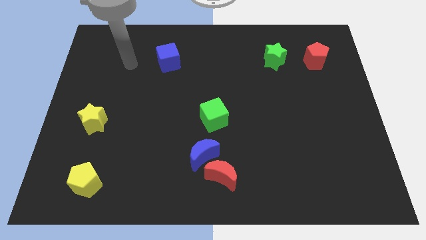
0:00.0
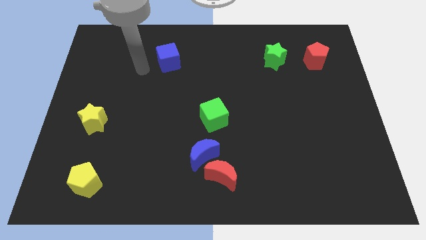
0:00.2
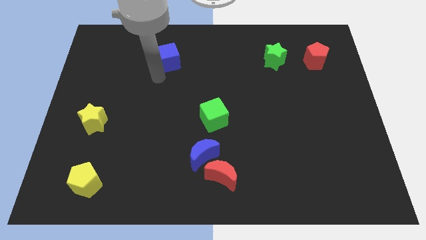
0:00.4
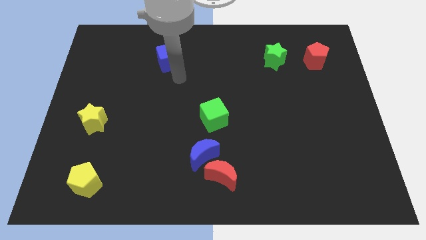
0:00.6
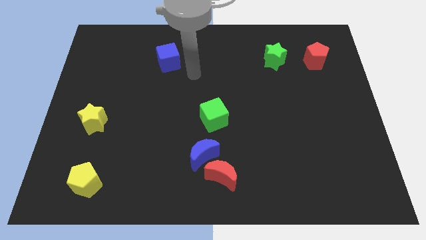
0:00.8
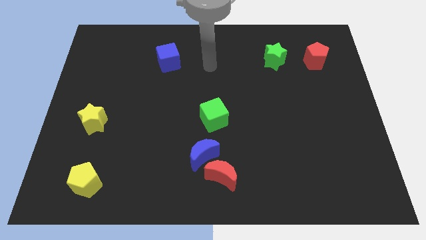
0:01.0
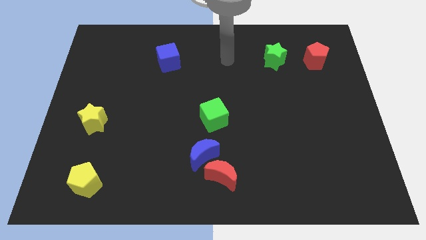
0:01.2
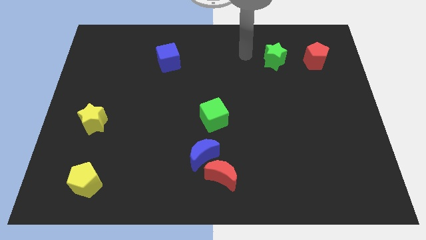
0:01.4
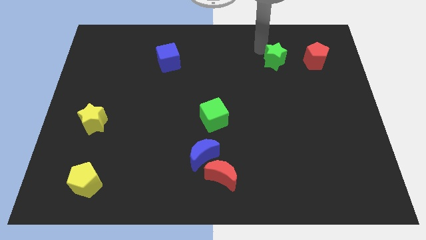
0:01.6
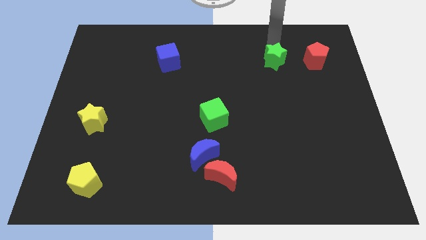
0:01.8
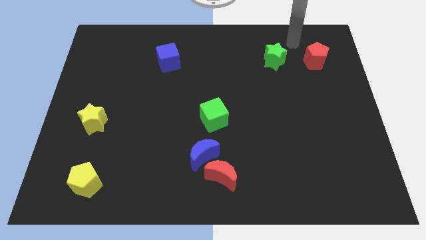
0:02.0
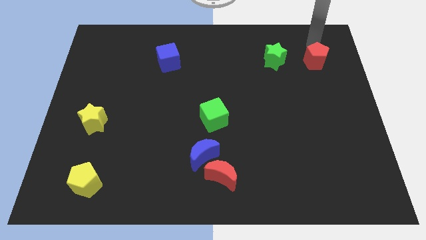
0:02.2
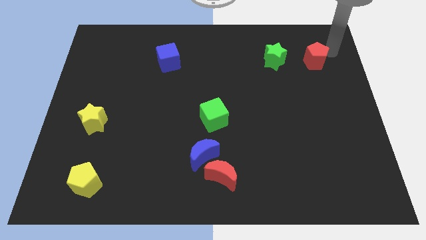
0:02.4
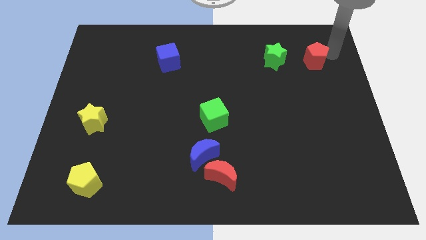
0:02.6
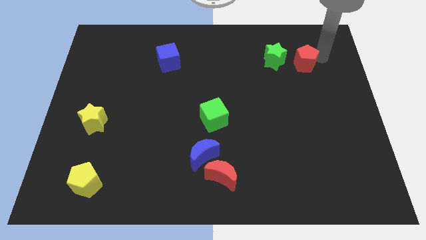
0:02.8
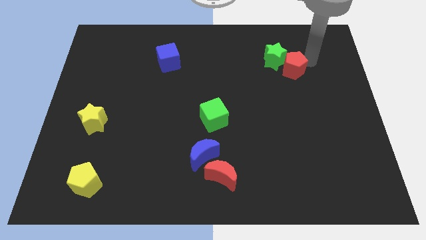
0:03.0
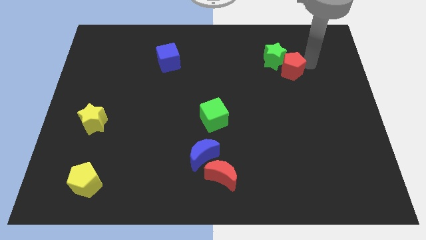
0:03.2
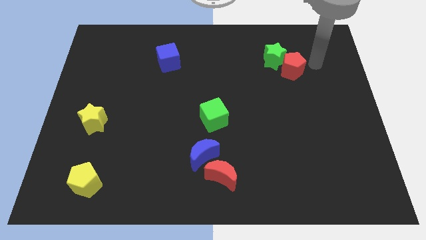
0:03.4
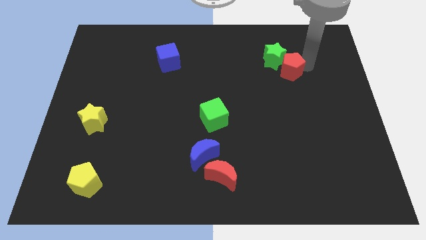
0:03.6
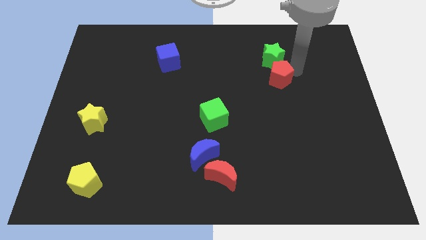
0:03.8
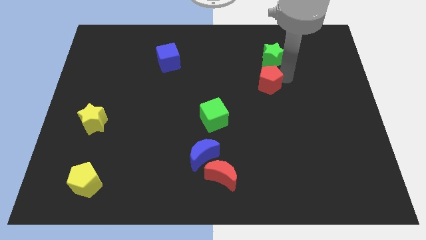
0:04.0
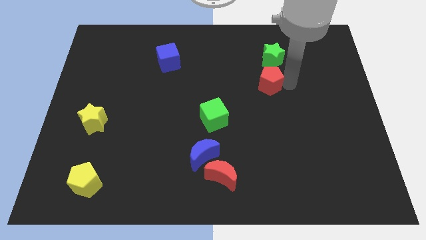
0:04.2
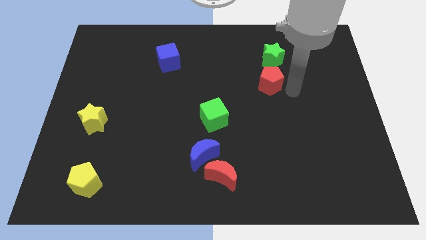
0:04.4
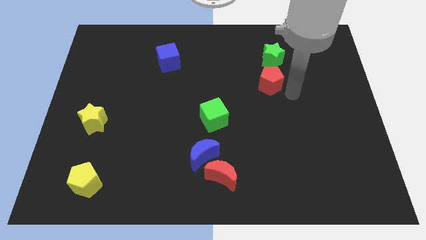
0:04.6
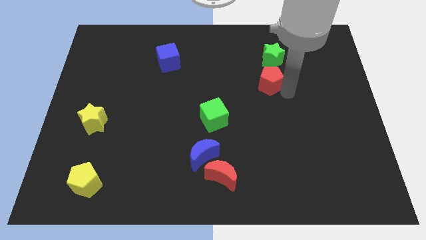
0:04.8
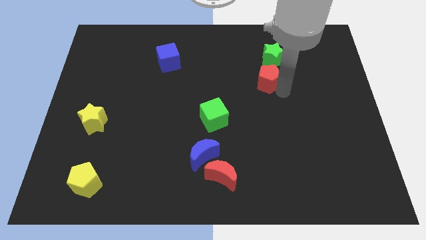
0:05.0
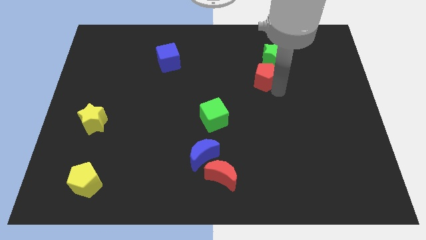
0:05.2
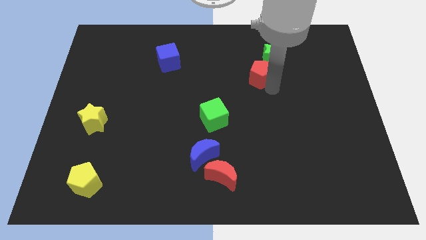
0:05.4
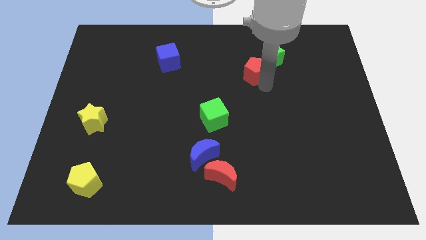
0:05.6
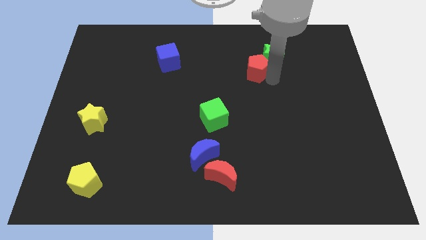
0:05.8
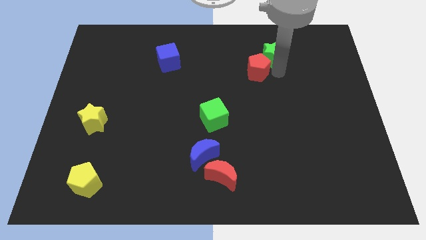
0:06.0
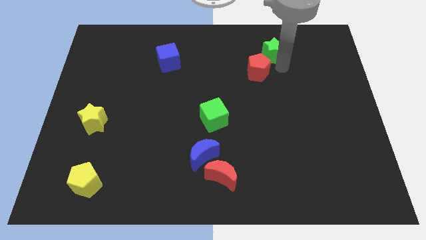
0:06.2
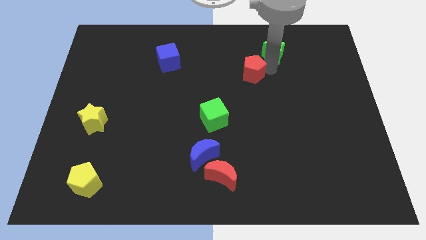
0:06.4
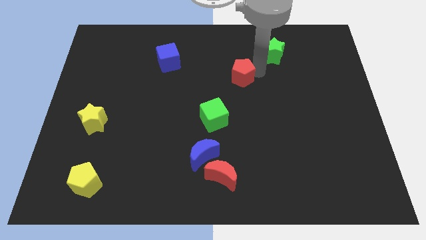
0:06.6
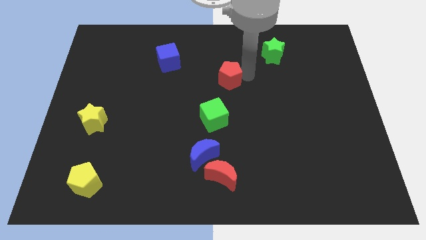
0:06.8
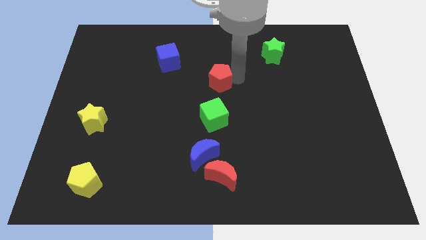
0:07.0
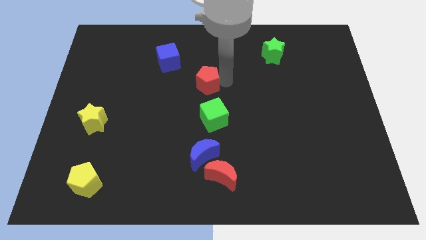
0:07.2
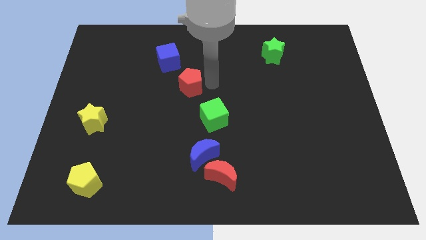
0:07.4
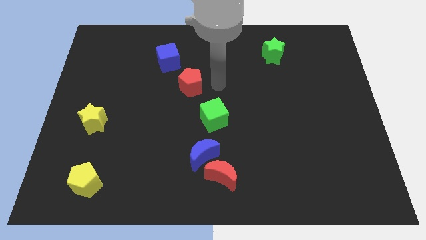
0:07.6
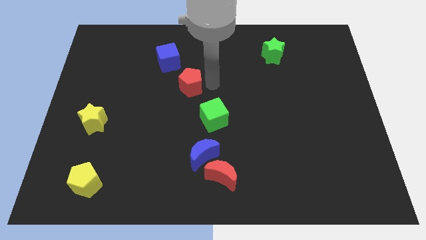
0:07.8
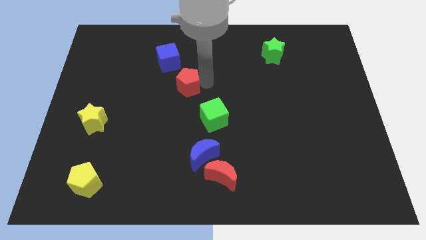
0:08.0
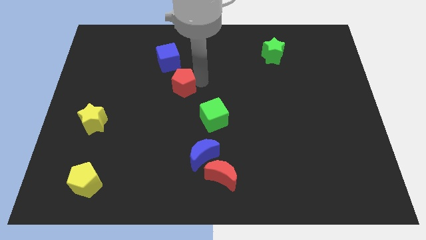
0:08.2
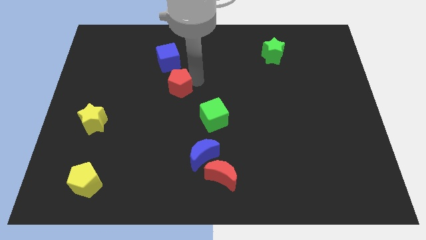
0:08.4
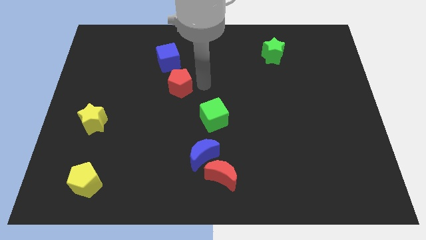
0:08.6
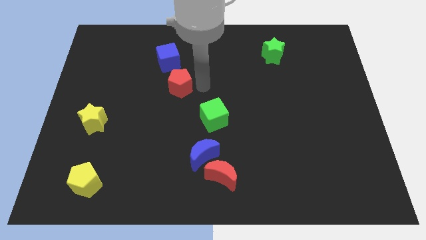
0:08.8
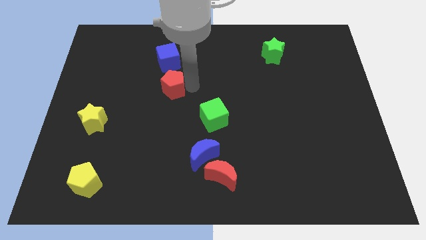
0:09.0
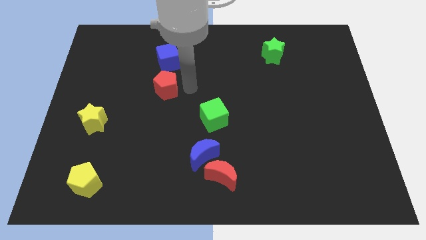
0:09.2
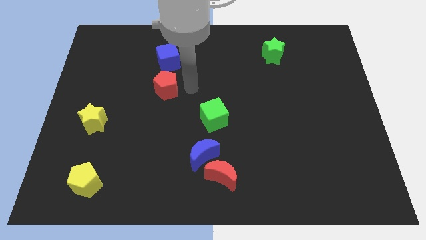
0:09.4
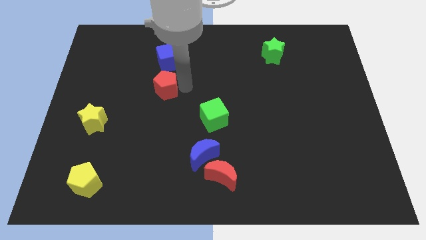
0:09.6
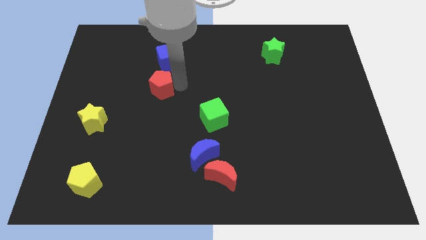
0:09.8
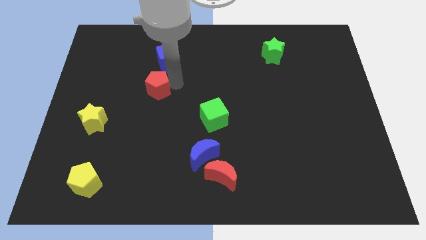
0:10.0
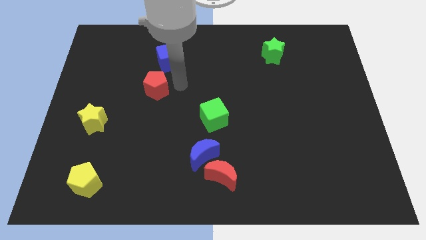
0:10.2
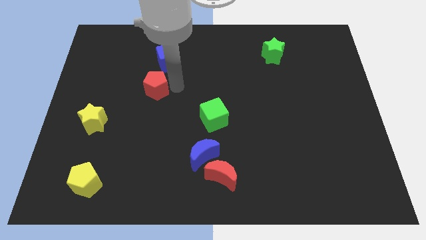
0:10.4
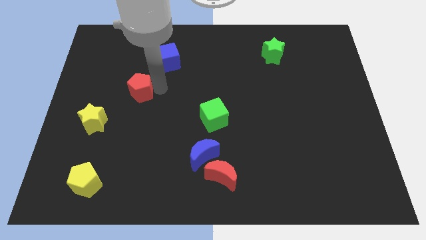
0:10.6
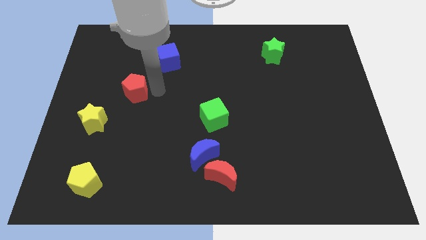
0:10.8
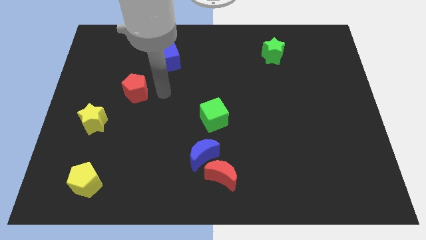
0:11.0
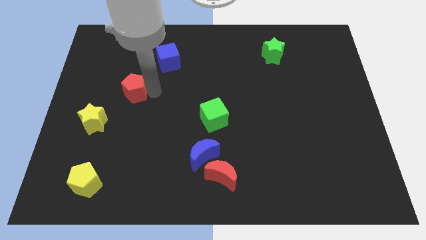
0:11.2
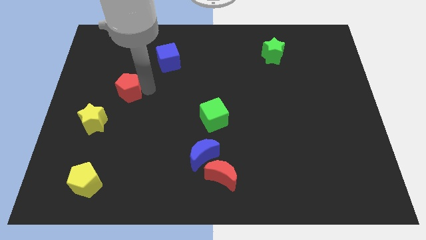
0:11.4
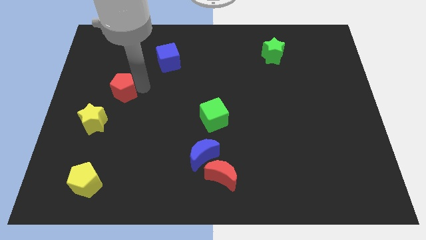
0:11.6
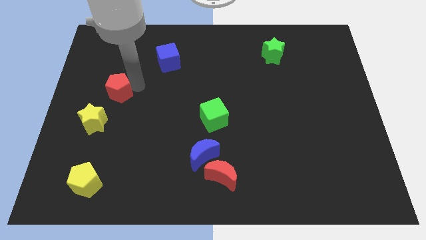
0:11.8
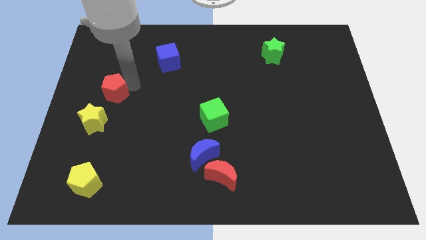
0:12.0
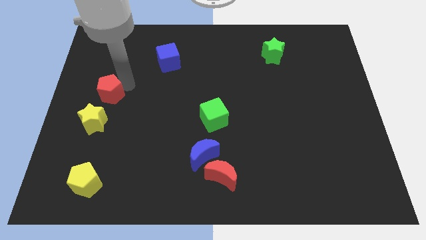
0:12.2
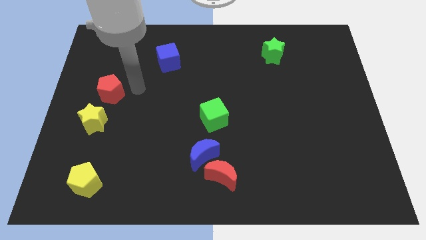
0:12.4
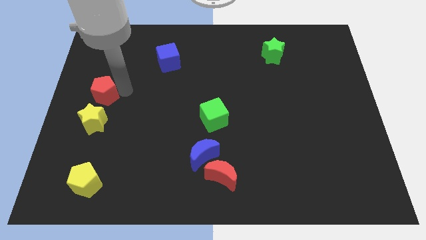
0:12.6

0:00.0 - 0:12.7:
slide the red pentagon to the center left
